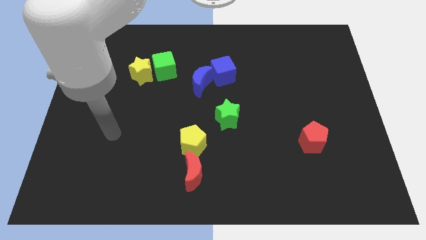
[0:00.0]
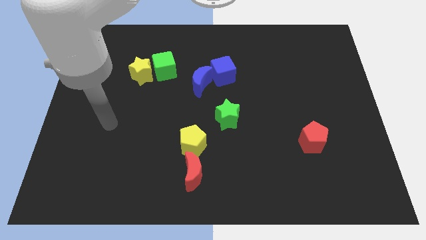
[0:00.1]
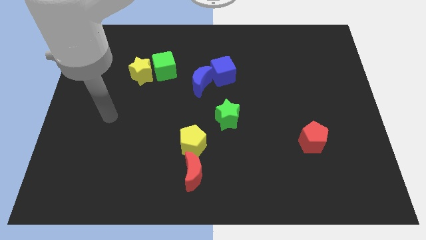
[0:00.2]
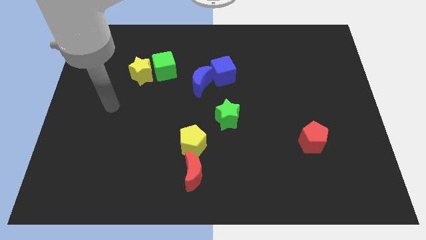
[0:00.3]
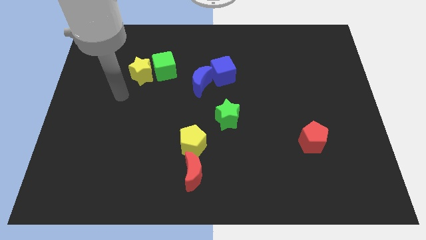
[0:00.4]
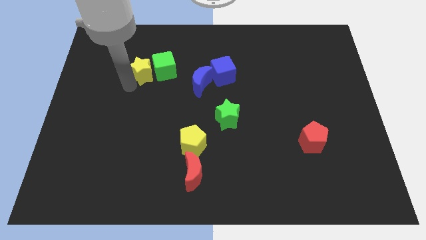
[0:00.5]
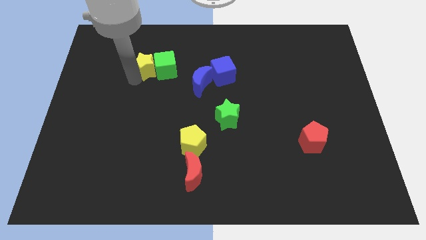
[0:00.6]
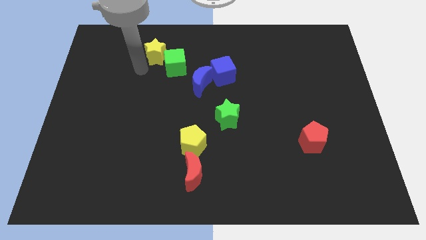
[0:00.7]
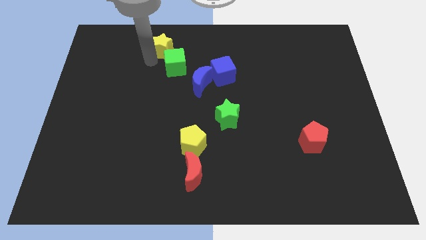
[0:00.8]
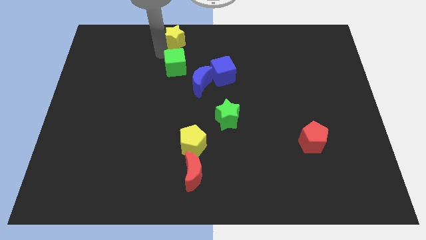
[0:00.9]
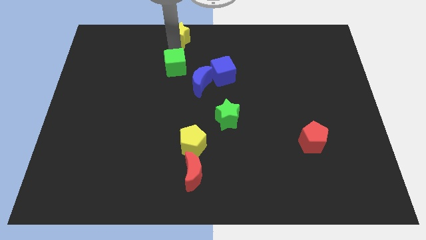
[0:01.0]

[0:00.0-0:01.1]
separate the green cube from the yellow star

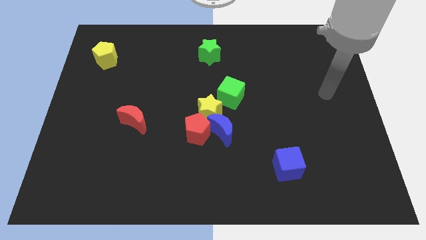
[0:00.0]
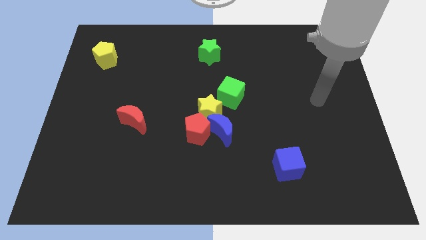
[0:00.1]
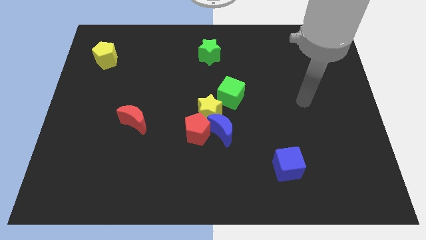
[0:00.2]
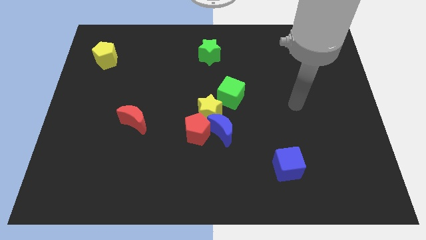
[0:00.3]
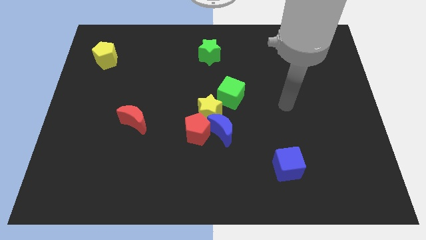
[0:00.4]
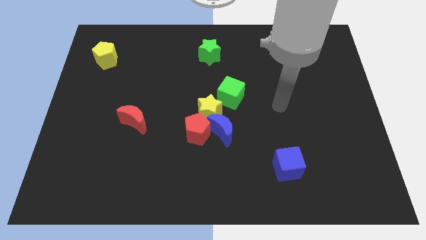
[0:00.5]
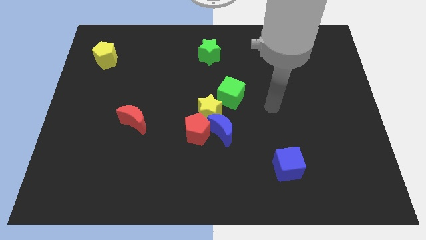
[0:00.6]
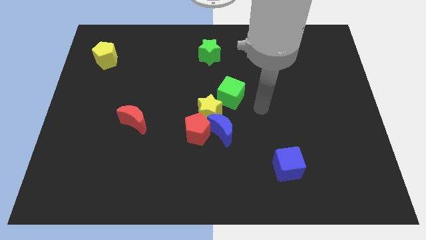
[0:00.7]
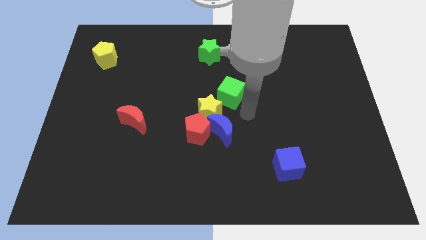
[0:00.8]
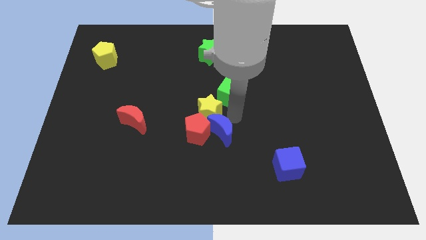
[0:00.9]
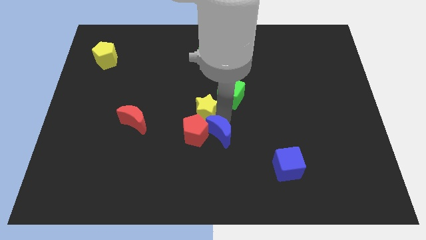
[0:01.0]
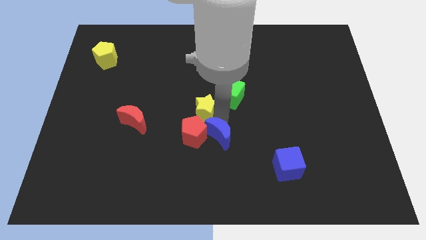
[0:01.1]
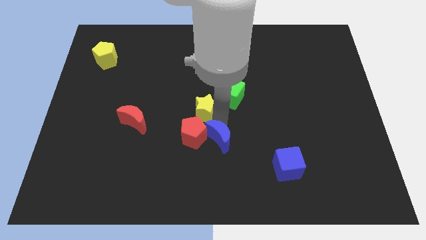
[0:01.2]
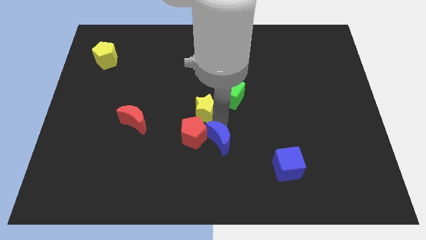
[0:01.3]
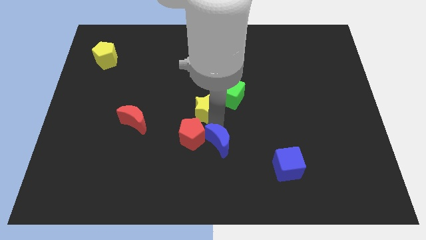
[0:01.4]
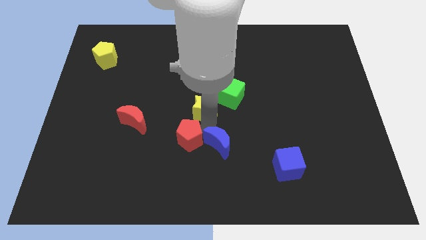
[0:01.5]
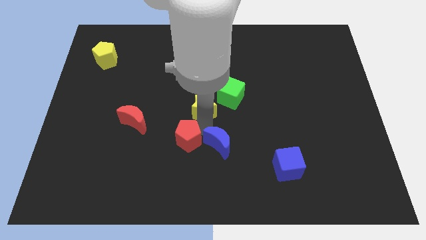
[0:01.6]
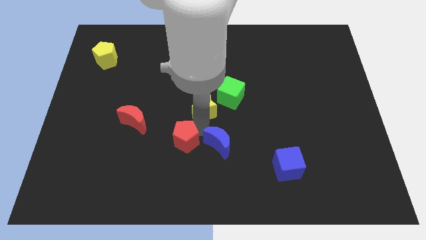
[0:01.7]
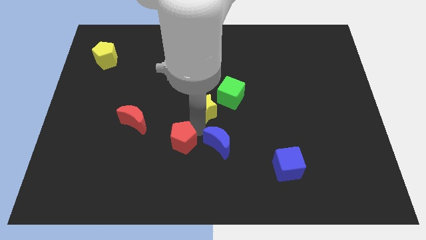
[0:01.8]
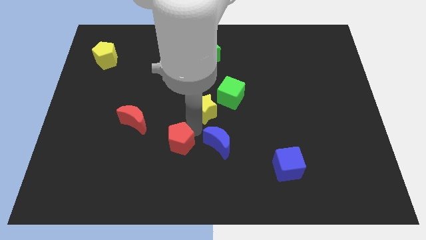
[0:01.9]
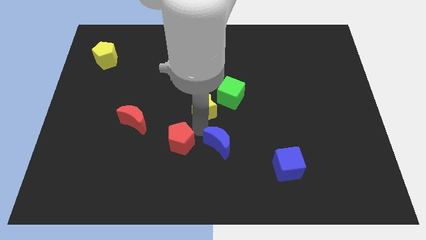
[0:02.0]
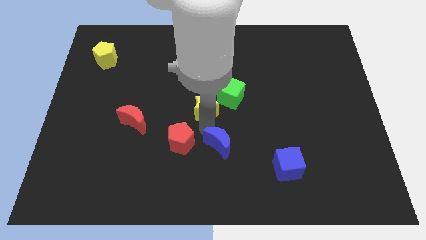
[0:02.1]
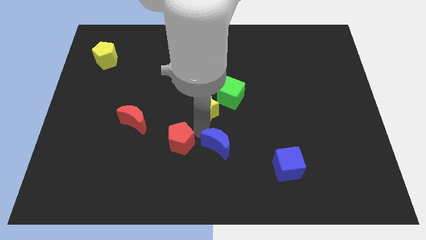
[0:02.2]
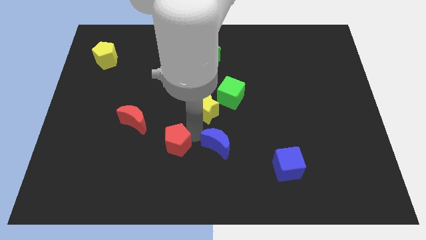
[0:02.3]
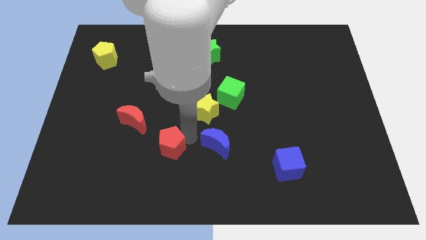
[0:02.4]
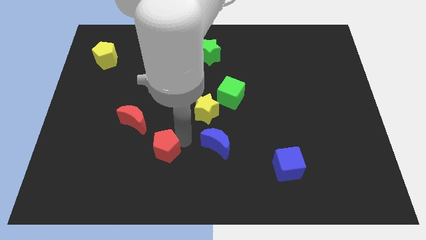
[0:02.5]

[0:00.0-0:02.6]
pull the red pentagon apart from the blue moon and yellow star

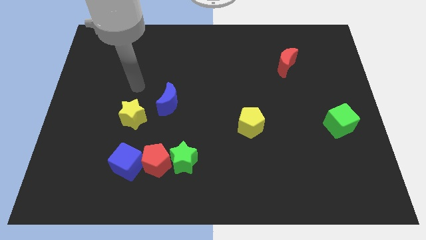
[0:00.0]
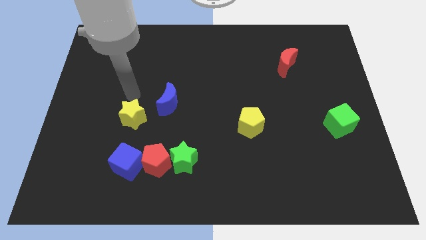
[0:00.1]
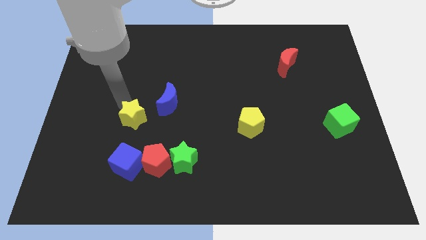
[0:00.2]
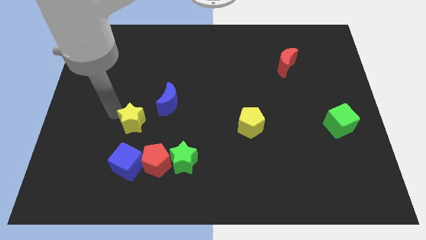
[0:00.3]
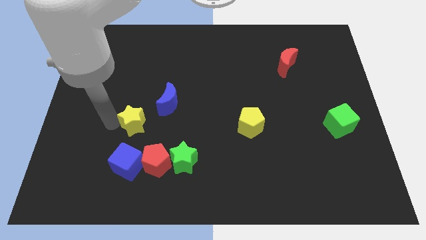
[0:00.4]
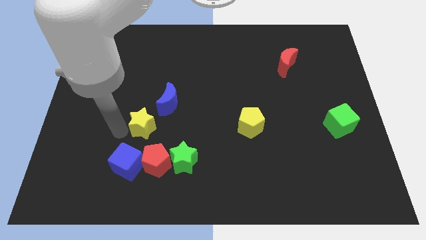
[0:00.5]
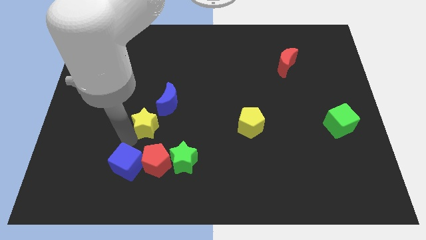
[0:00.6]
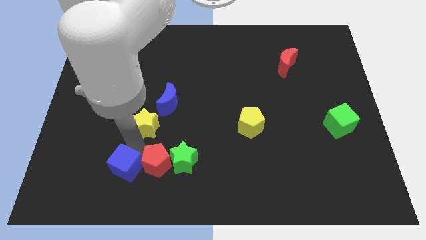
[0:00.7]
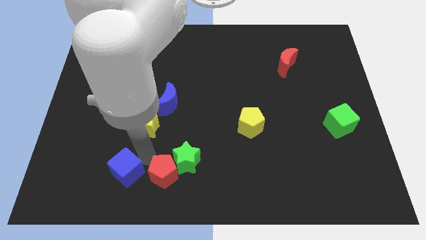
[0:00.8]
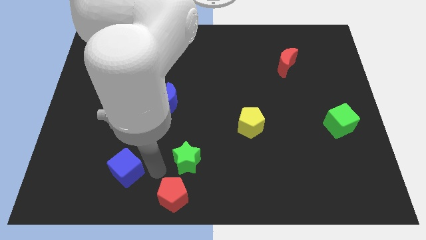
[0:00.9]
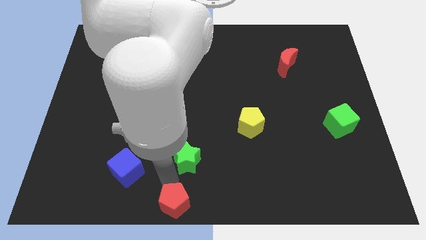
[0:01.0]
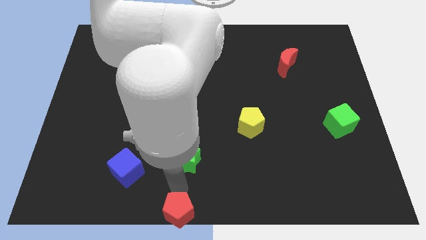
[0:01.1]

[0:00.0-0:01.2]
pull the green star apart from the red pentagon

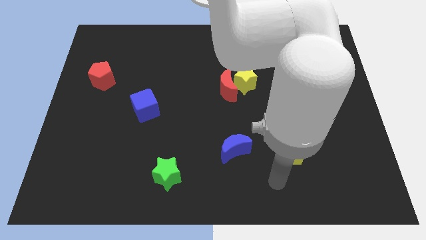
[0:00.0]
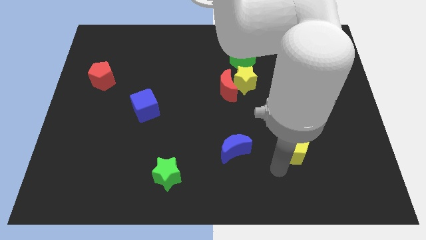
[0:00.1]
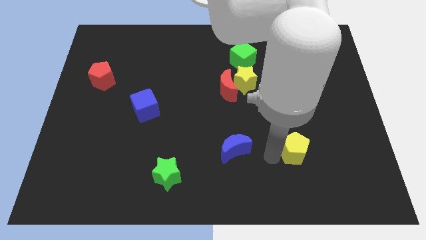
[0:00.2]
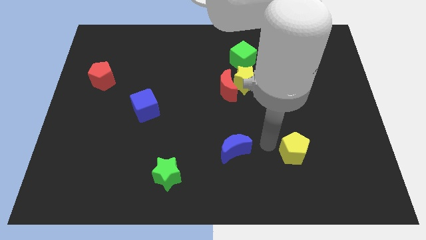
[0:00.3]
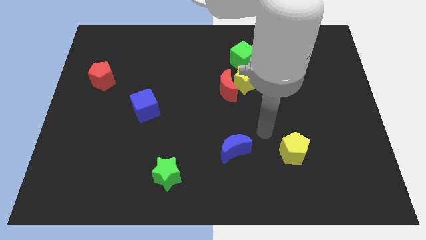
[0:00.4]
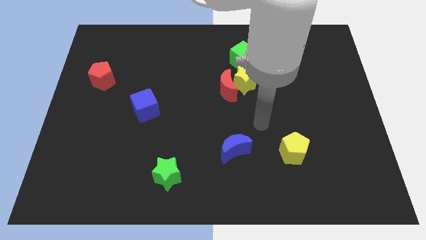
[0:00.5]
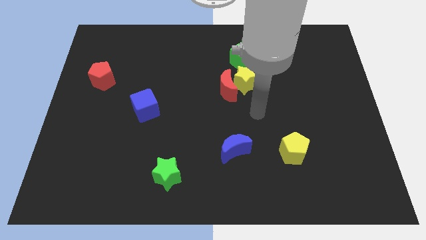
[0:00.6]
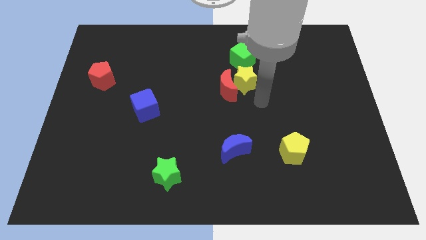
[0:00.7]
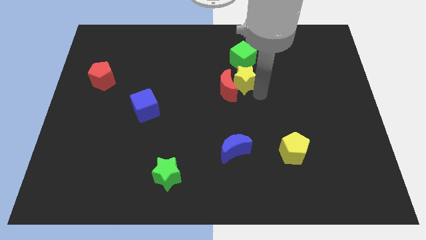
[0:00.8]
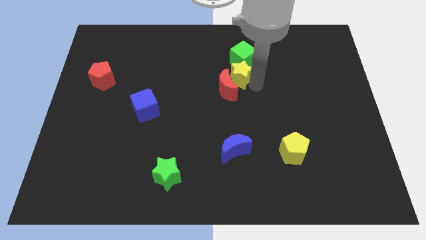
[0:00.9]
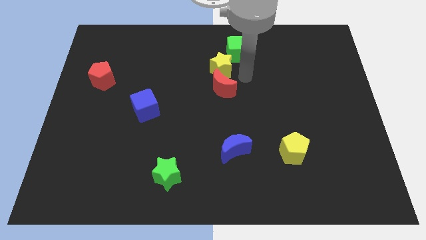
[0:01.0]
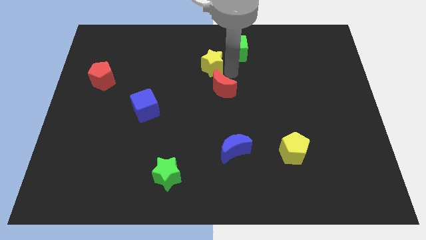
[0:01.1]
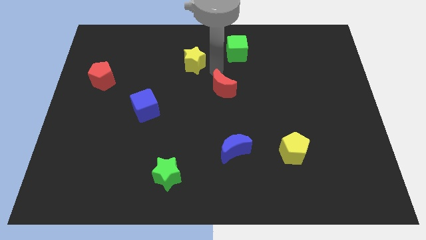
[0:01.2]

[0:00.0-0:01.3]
move the red moon away from the yellow star

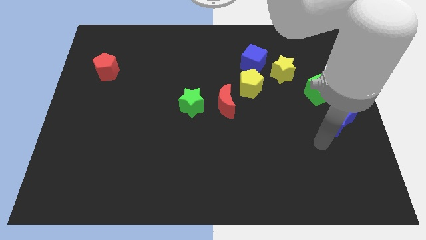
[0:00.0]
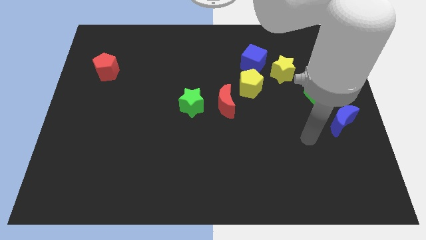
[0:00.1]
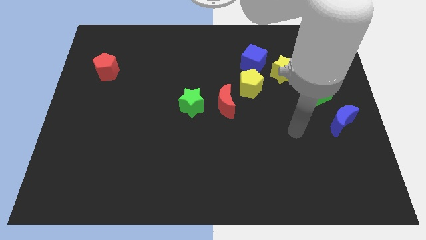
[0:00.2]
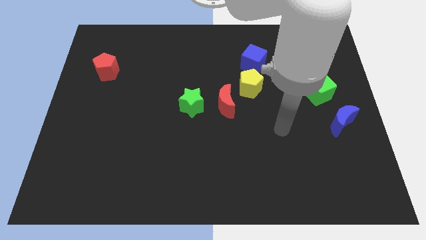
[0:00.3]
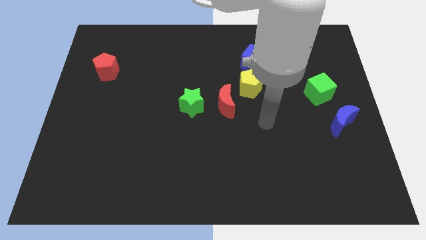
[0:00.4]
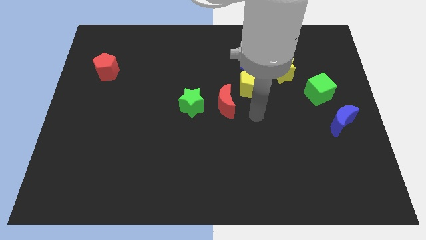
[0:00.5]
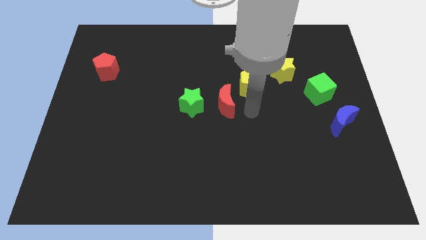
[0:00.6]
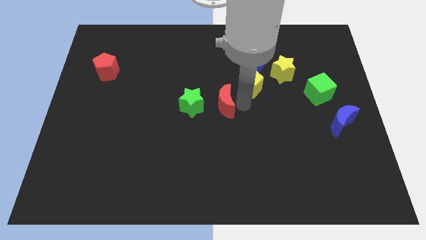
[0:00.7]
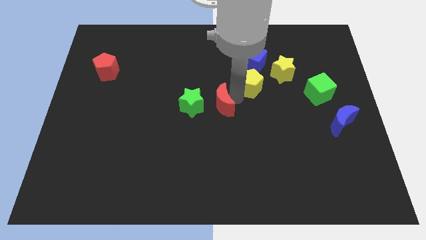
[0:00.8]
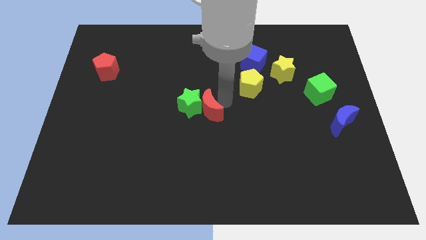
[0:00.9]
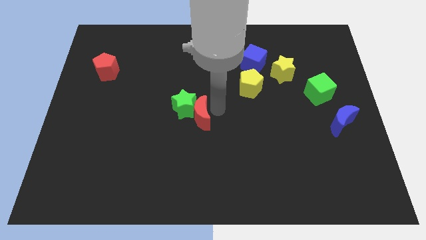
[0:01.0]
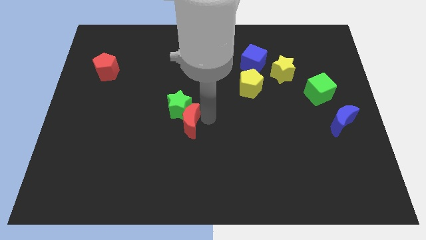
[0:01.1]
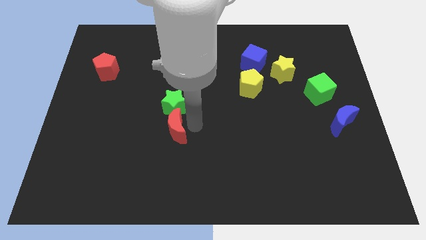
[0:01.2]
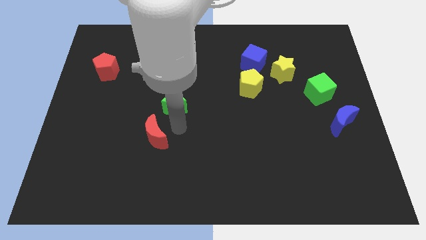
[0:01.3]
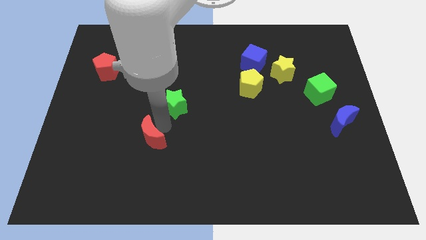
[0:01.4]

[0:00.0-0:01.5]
separate the green star from the red moon

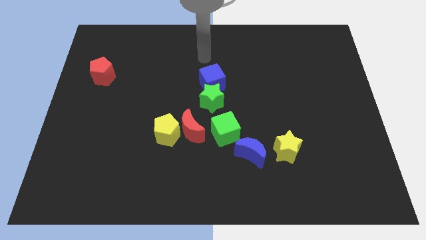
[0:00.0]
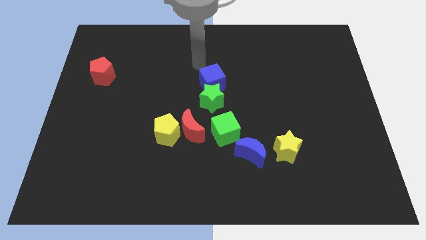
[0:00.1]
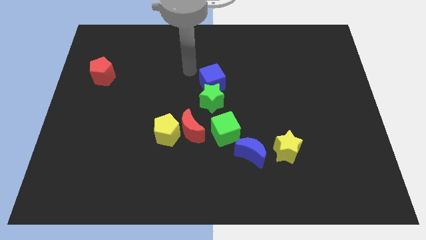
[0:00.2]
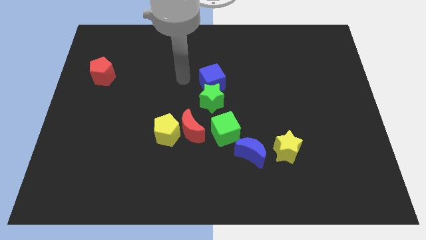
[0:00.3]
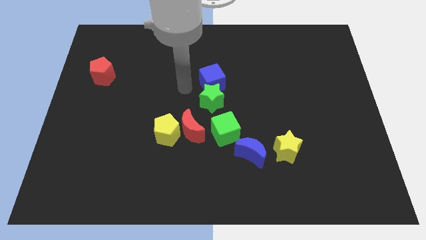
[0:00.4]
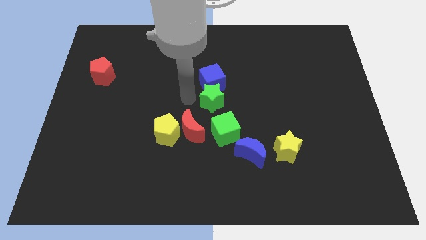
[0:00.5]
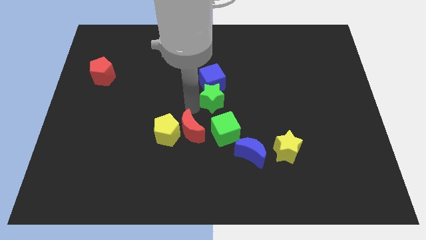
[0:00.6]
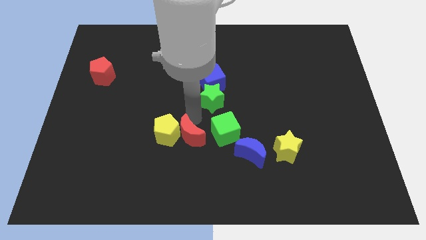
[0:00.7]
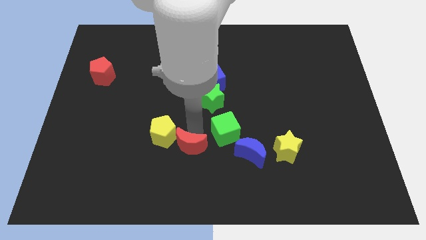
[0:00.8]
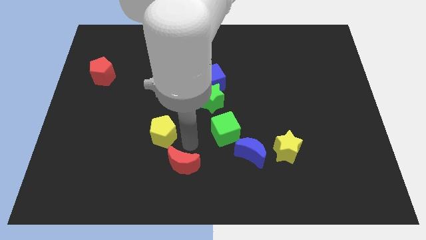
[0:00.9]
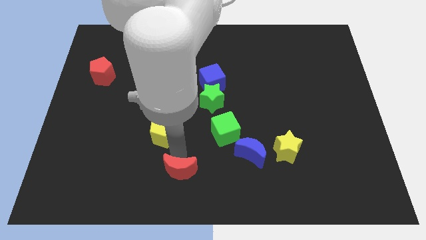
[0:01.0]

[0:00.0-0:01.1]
move the yellow pentagon away from the red moon

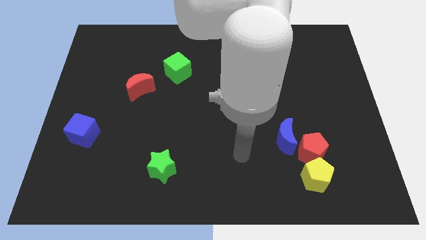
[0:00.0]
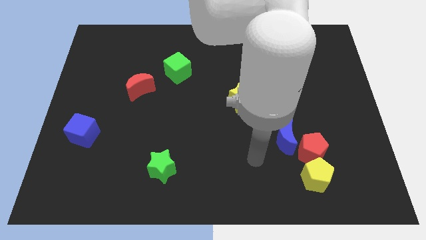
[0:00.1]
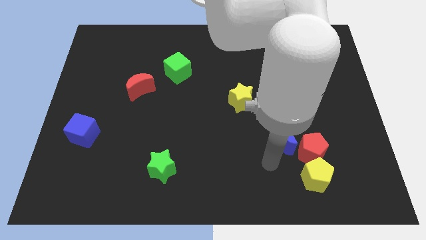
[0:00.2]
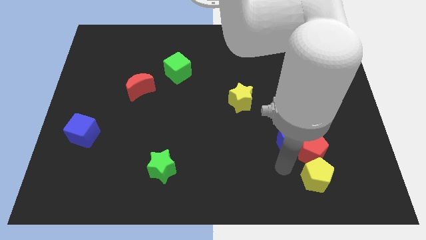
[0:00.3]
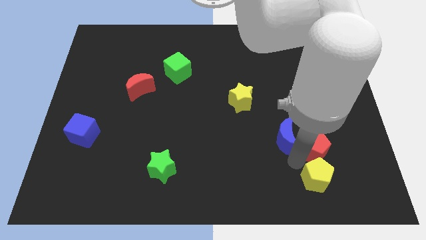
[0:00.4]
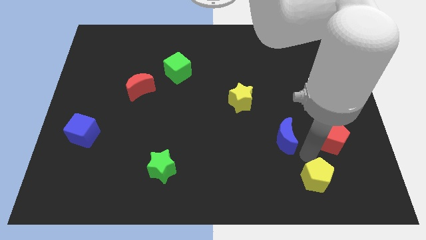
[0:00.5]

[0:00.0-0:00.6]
pull the blue moon apart from the red pentagon
